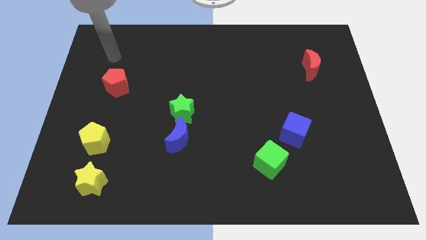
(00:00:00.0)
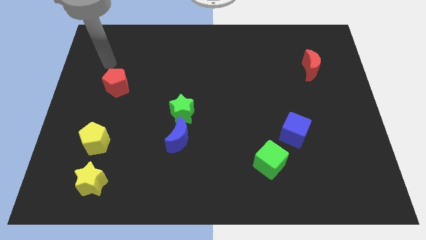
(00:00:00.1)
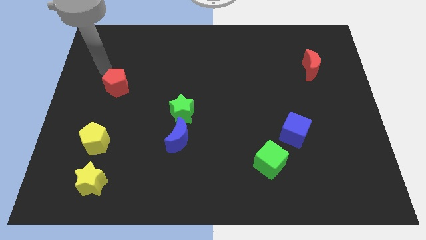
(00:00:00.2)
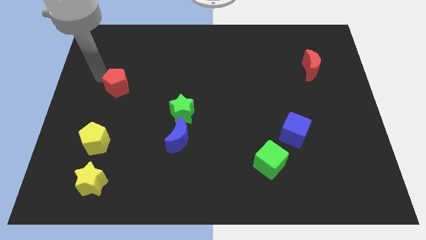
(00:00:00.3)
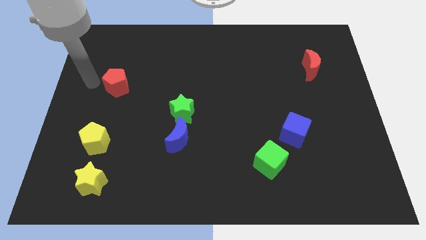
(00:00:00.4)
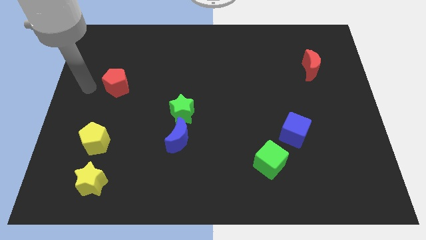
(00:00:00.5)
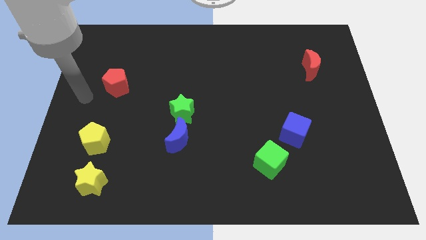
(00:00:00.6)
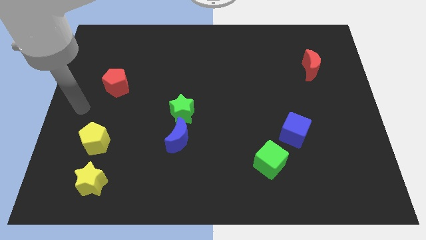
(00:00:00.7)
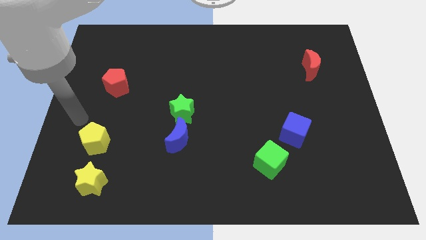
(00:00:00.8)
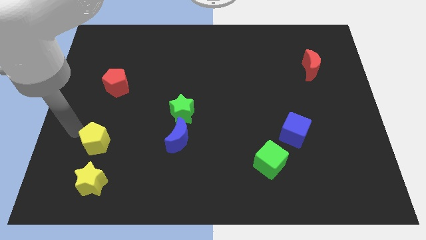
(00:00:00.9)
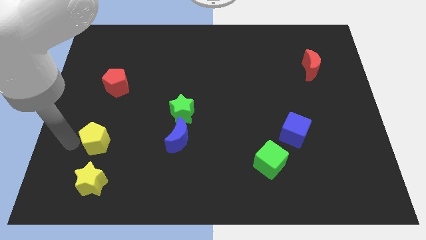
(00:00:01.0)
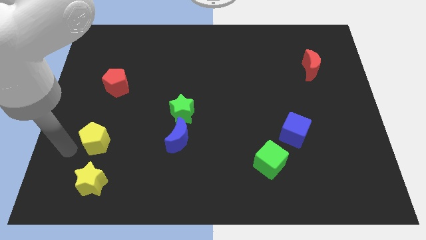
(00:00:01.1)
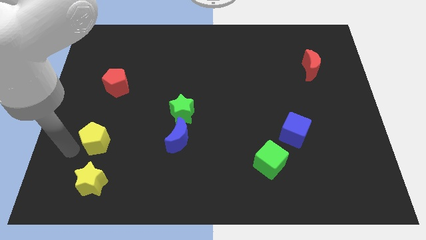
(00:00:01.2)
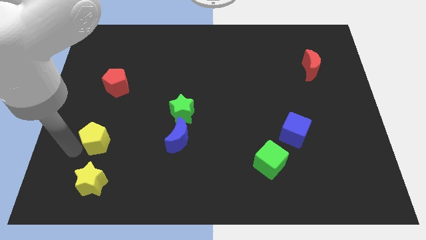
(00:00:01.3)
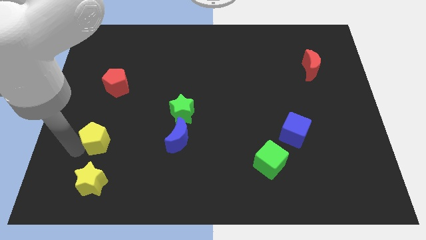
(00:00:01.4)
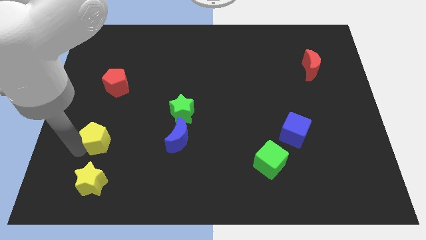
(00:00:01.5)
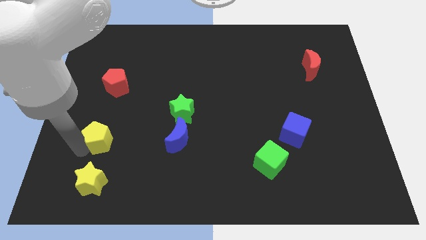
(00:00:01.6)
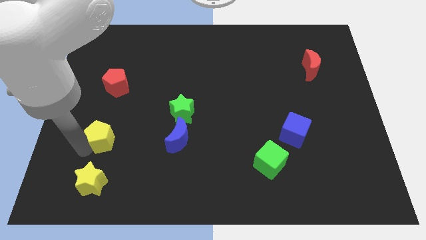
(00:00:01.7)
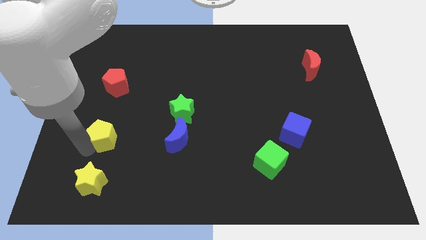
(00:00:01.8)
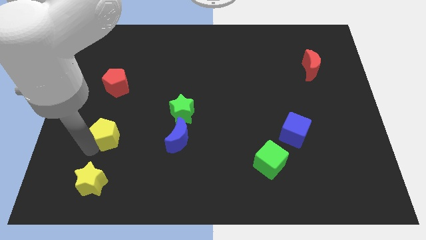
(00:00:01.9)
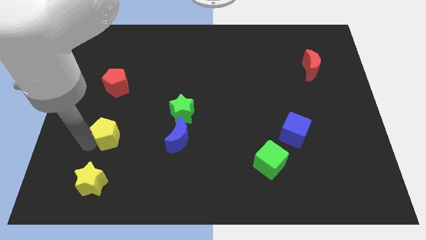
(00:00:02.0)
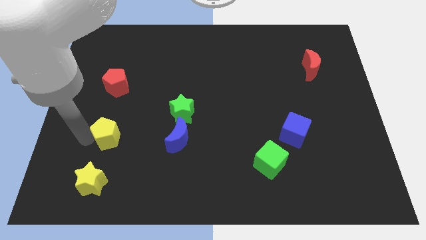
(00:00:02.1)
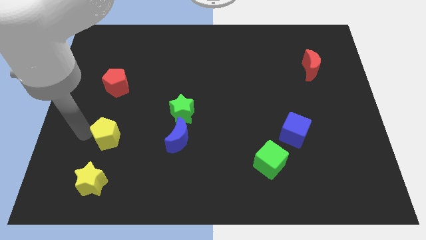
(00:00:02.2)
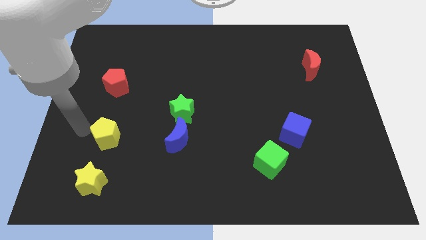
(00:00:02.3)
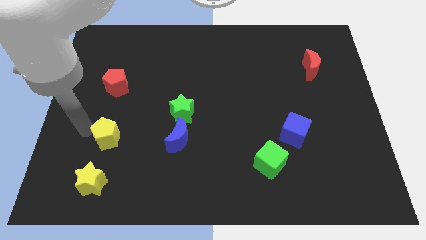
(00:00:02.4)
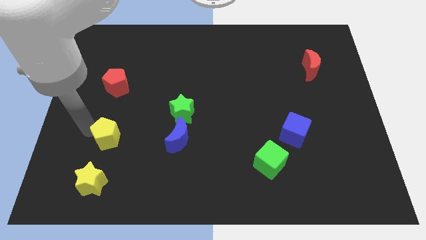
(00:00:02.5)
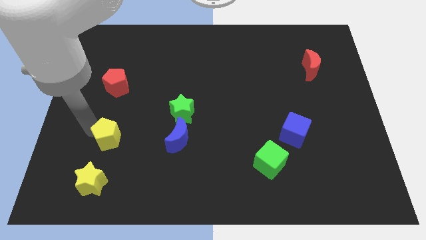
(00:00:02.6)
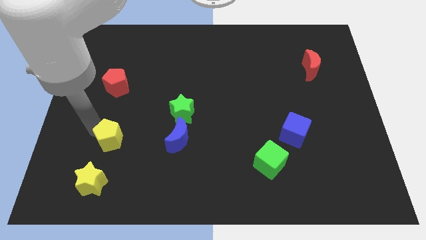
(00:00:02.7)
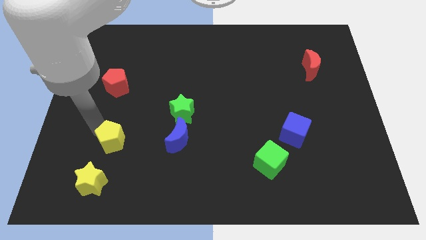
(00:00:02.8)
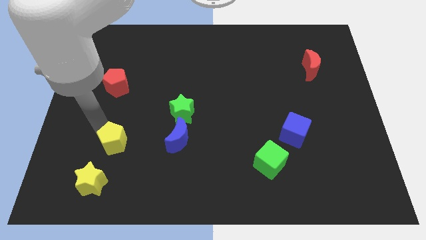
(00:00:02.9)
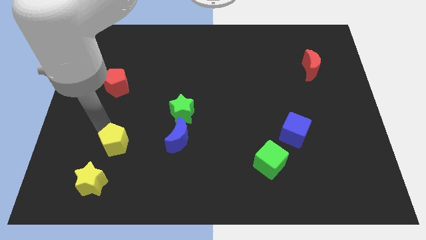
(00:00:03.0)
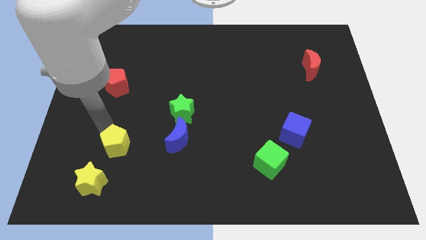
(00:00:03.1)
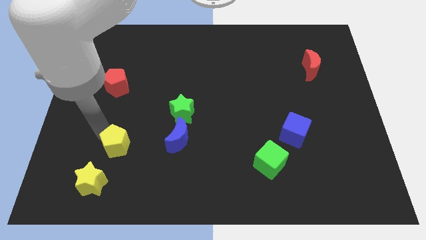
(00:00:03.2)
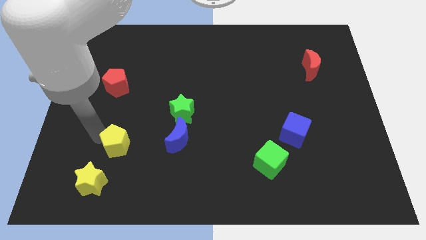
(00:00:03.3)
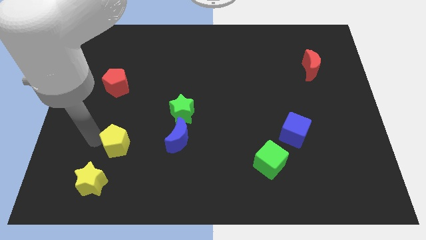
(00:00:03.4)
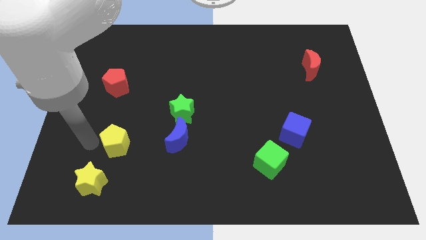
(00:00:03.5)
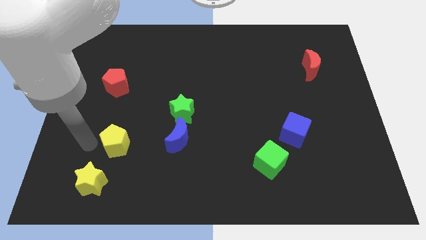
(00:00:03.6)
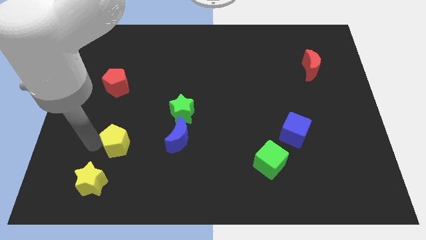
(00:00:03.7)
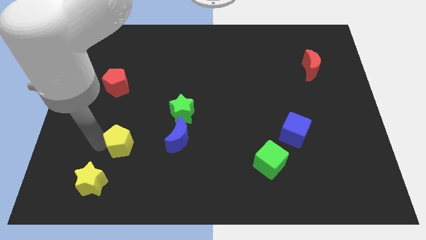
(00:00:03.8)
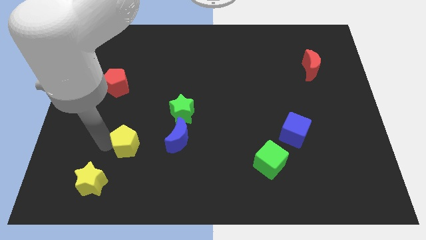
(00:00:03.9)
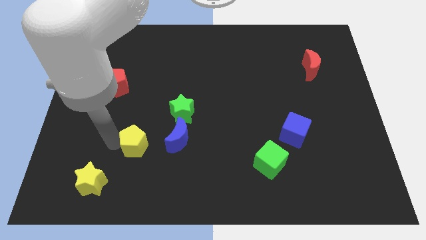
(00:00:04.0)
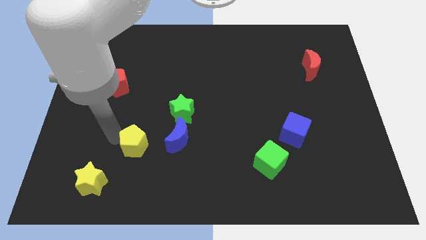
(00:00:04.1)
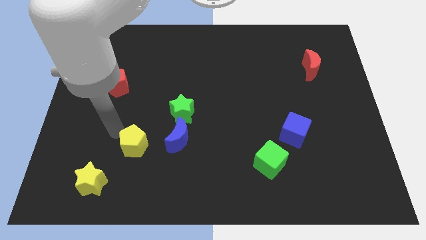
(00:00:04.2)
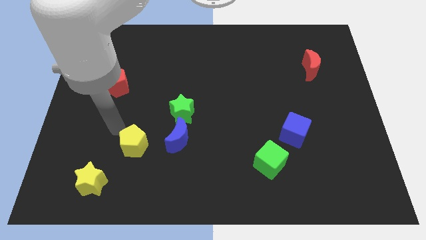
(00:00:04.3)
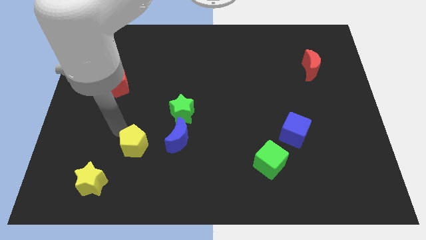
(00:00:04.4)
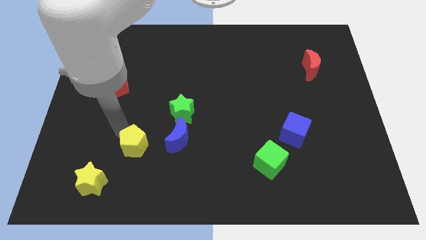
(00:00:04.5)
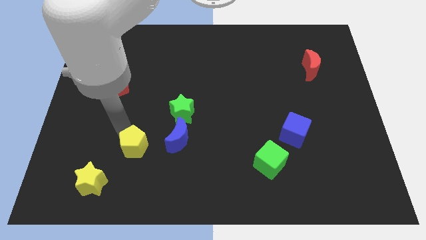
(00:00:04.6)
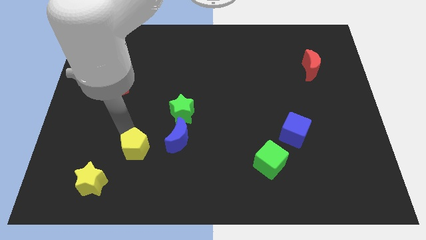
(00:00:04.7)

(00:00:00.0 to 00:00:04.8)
move the yellow pentagon to the bottom left side of the blue moon

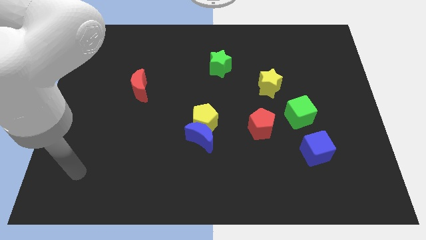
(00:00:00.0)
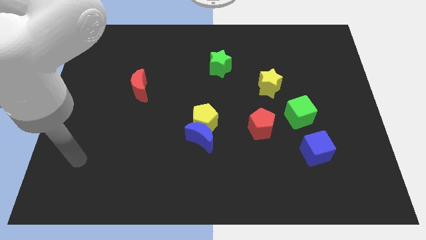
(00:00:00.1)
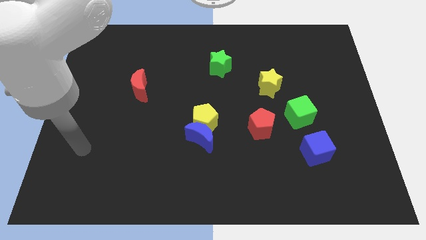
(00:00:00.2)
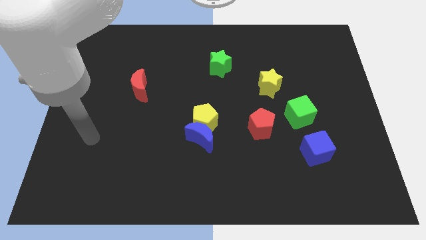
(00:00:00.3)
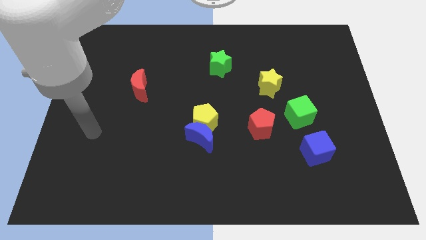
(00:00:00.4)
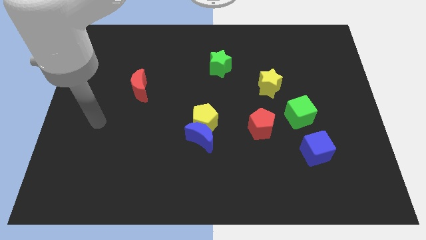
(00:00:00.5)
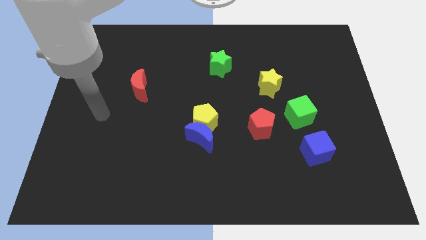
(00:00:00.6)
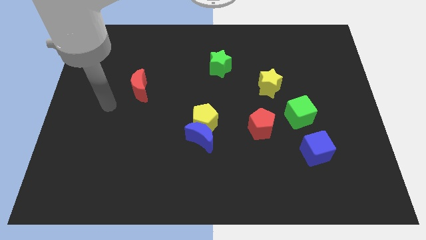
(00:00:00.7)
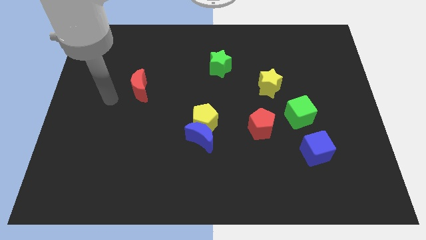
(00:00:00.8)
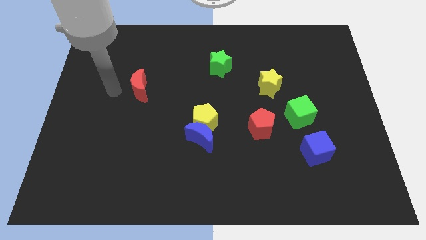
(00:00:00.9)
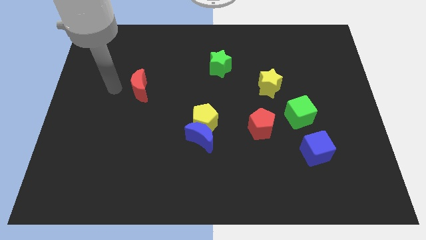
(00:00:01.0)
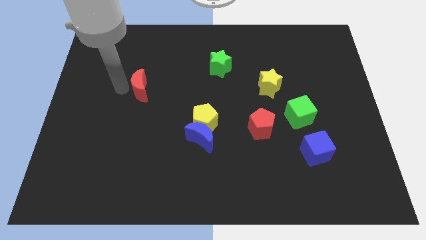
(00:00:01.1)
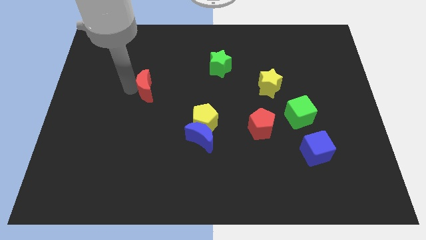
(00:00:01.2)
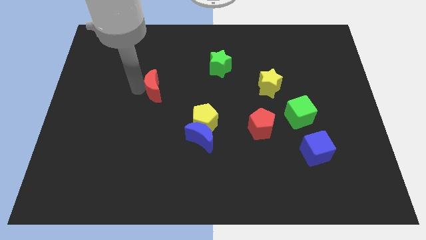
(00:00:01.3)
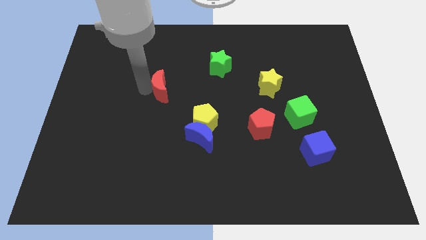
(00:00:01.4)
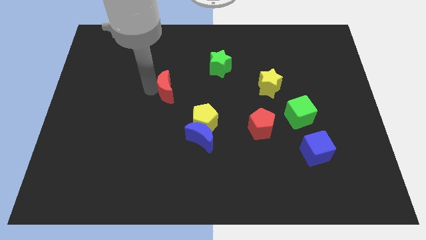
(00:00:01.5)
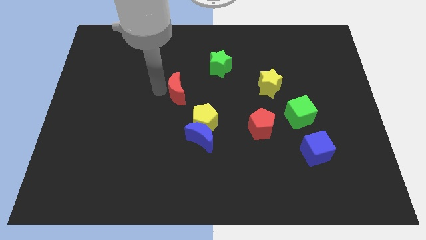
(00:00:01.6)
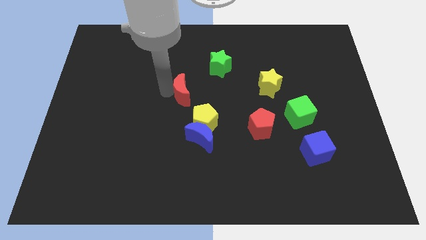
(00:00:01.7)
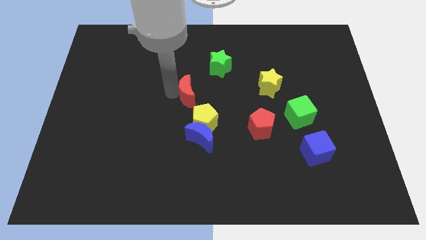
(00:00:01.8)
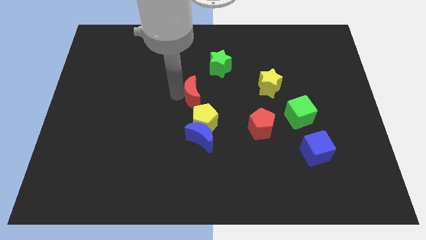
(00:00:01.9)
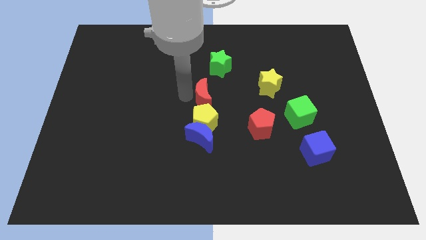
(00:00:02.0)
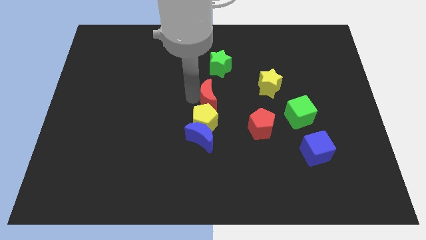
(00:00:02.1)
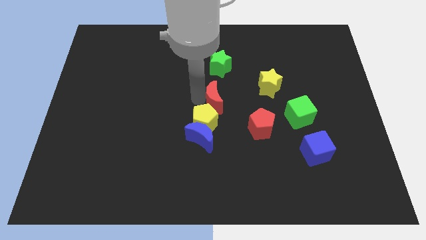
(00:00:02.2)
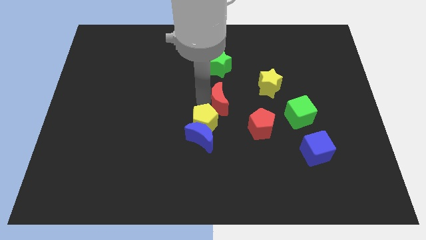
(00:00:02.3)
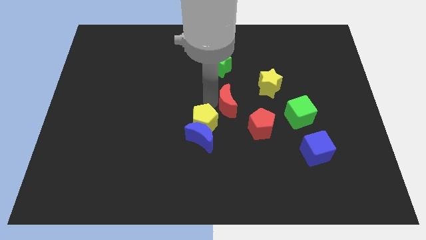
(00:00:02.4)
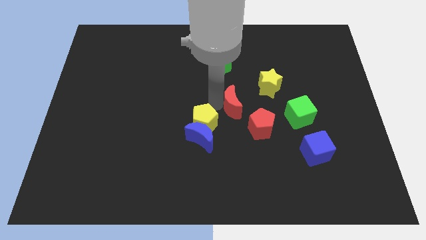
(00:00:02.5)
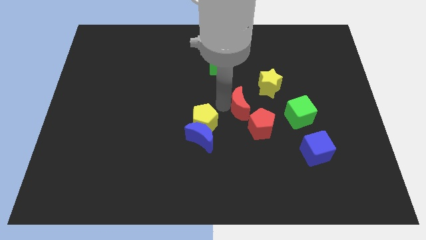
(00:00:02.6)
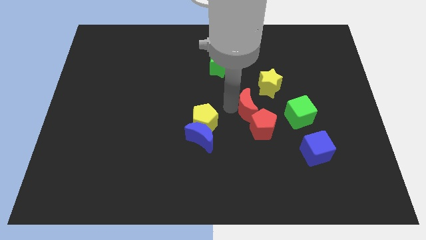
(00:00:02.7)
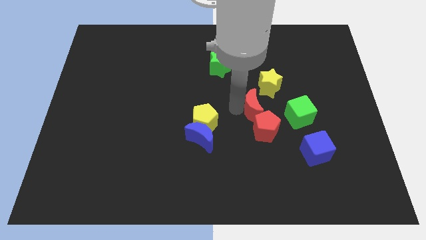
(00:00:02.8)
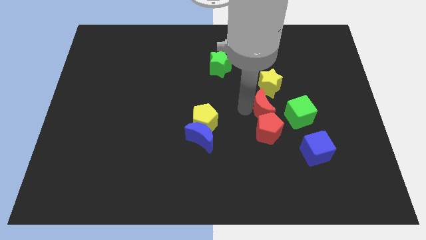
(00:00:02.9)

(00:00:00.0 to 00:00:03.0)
push the red moon to the top right of the red pentagon
